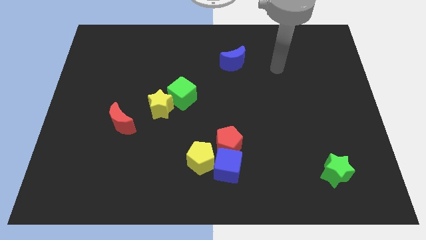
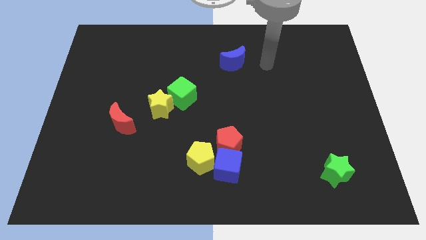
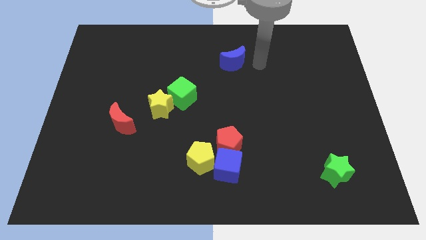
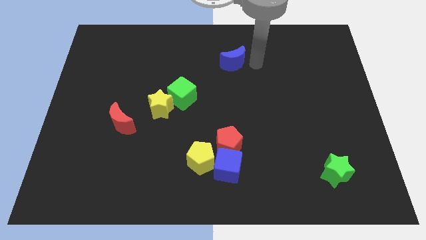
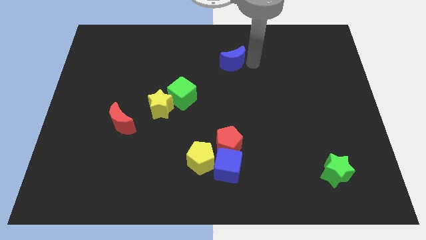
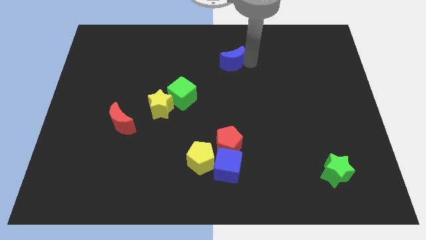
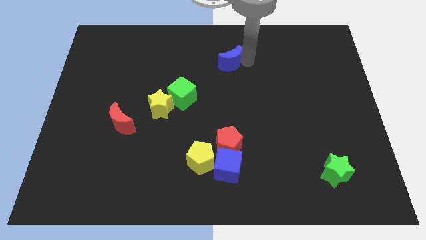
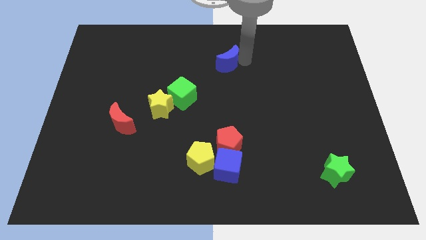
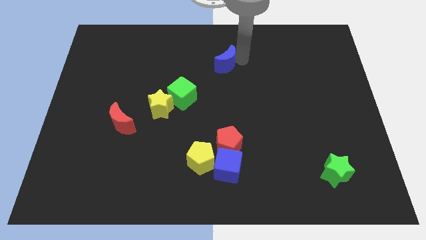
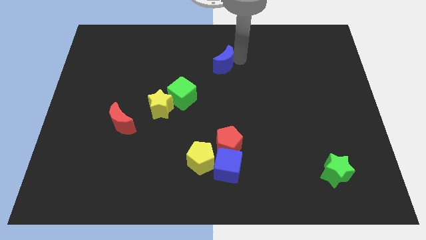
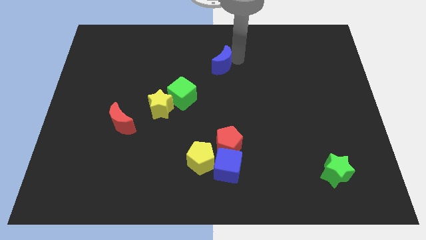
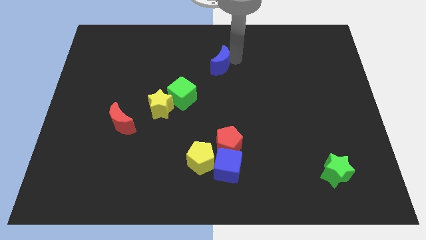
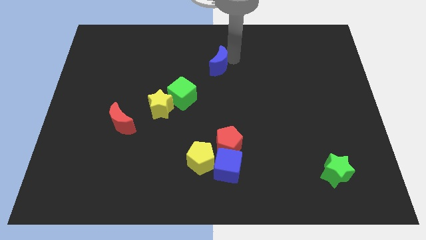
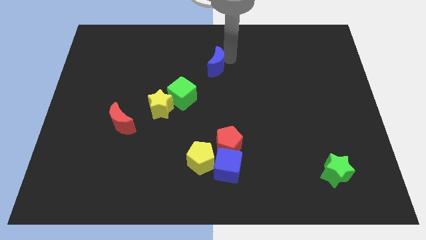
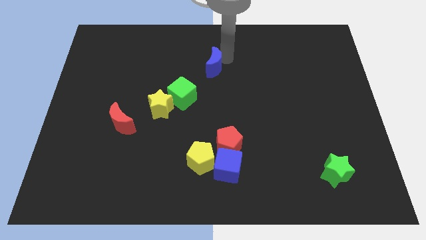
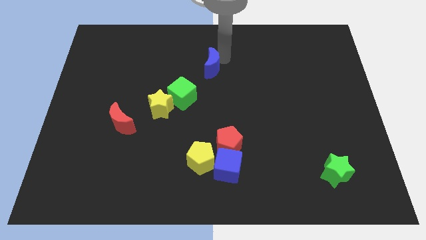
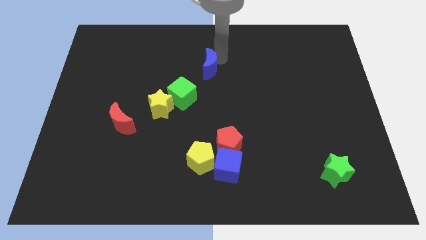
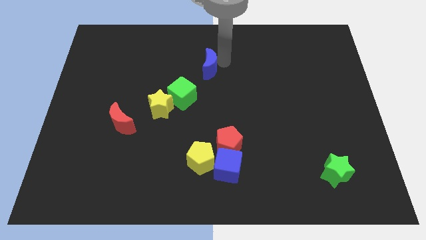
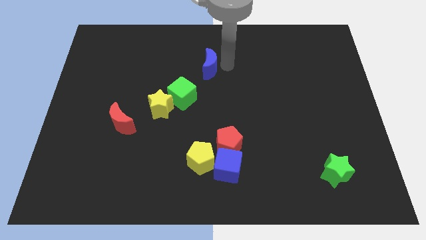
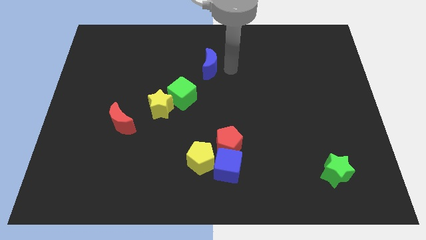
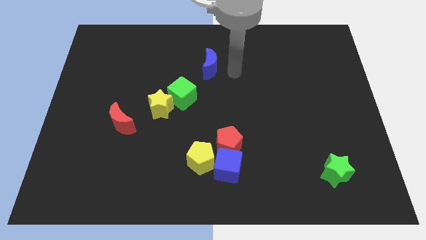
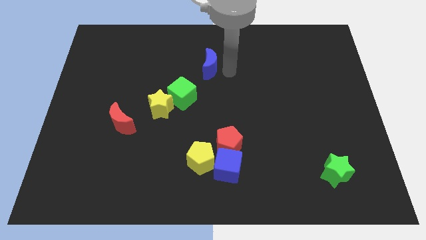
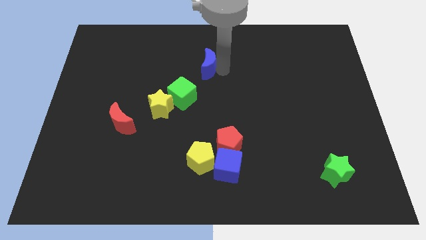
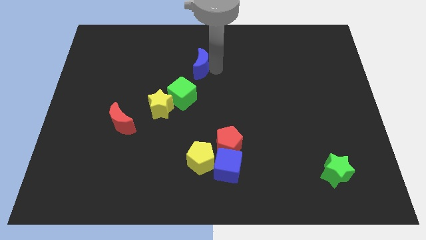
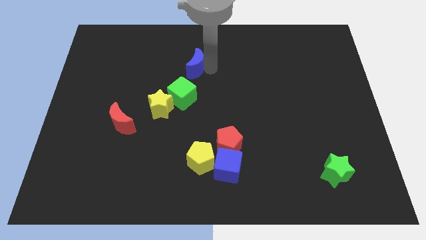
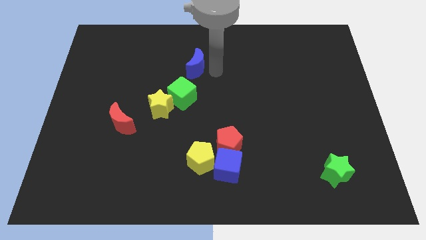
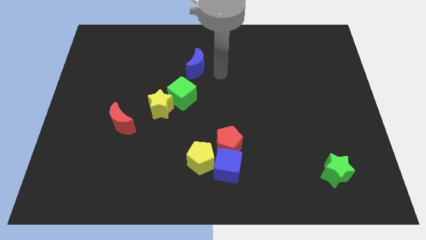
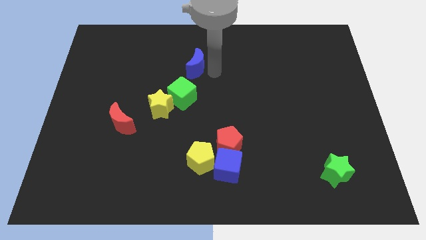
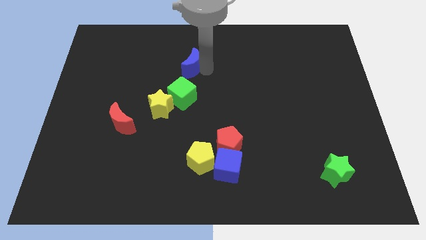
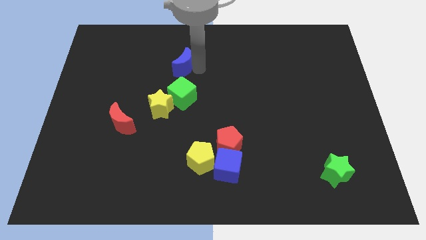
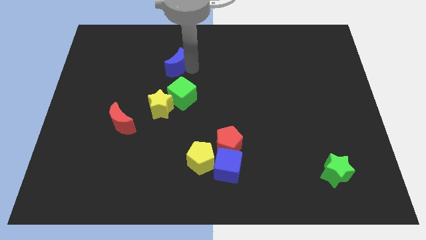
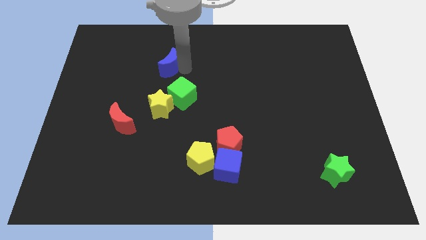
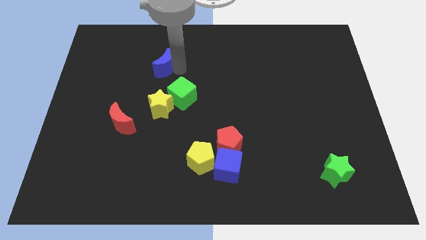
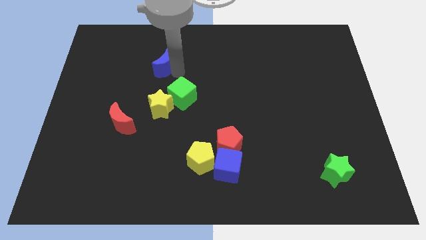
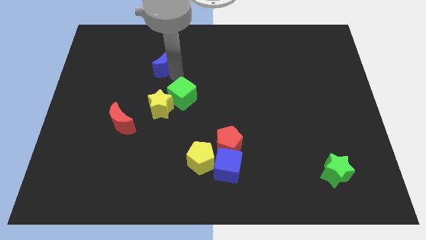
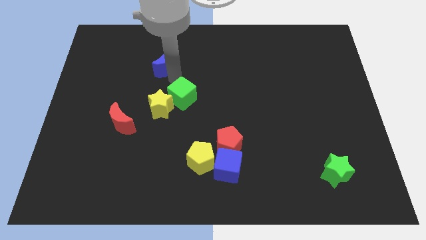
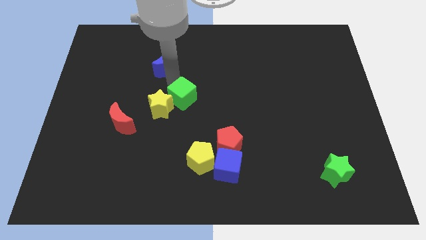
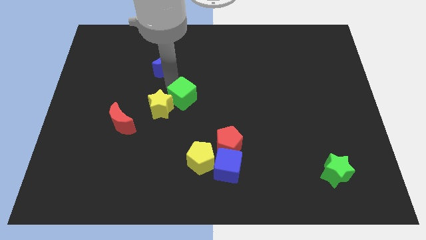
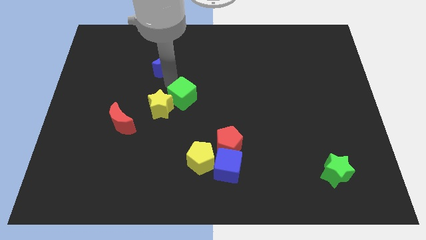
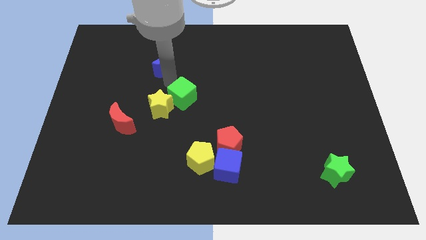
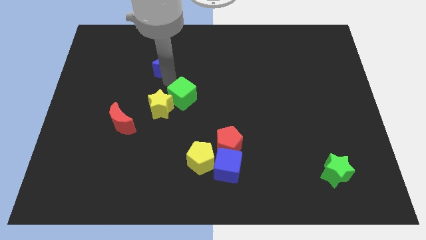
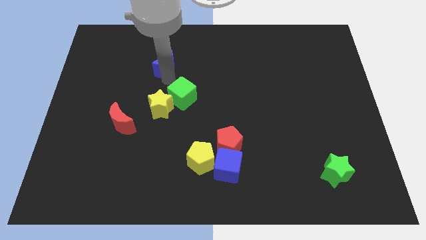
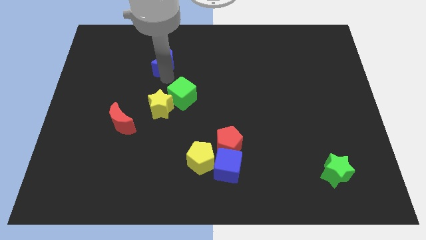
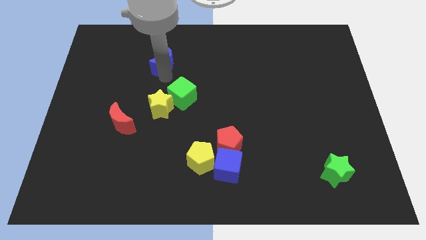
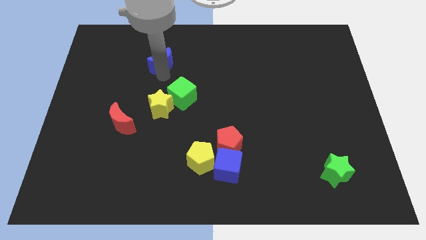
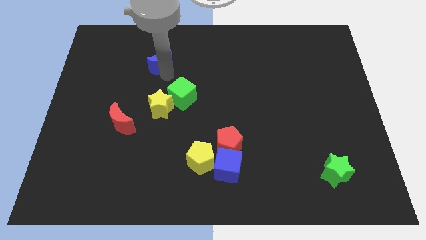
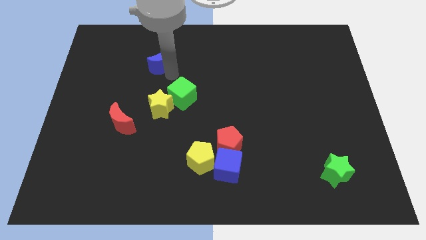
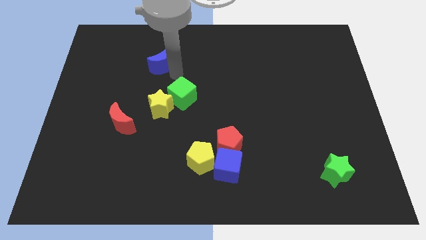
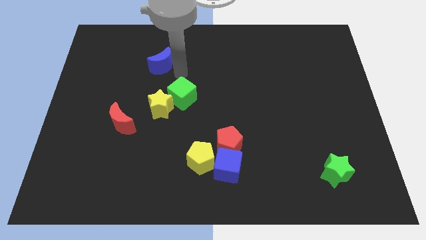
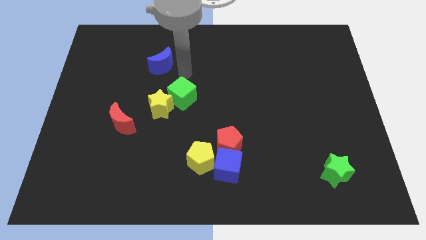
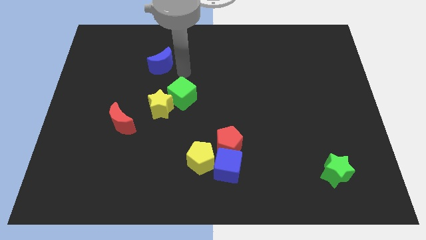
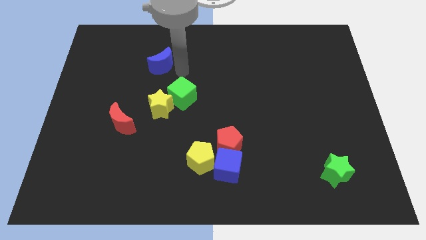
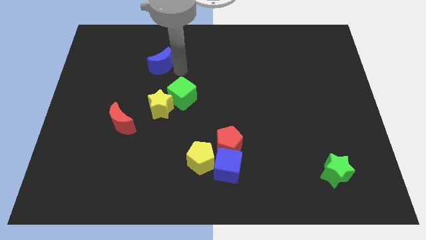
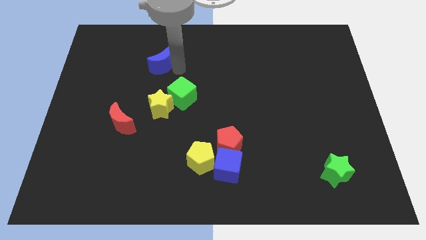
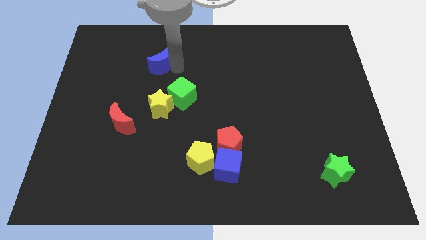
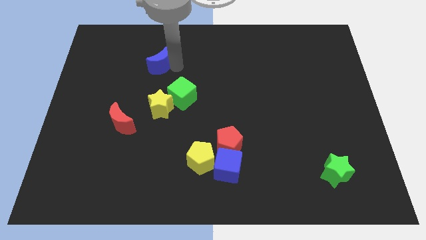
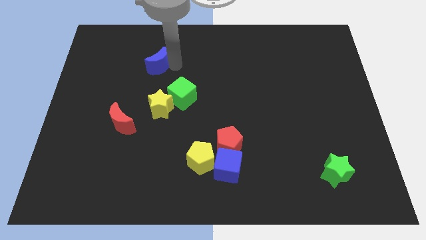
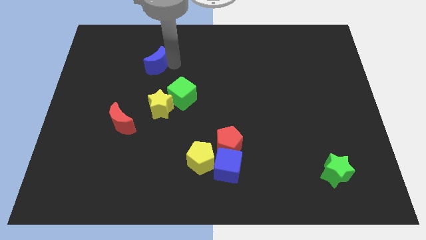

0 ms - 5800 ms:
push the blue moon to the left

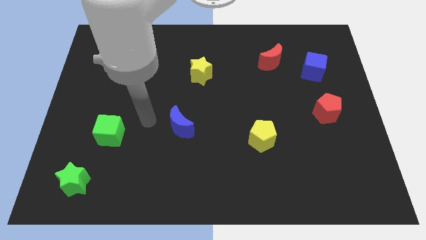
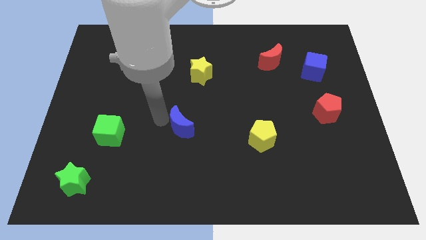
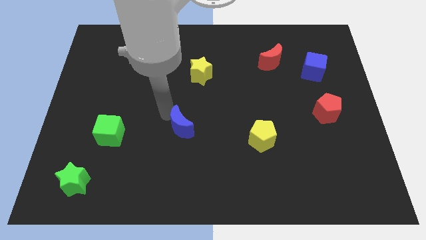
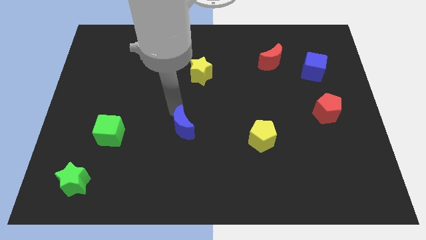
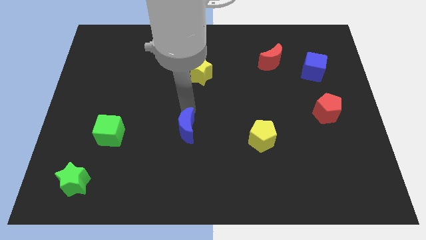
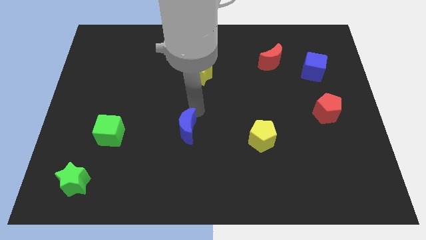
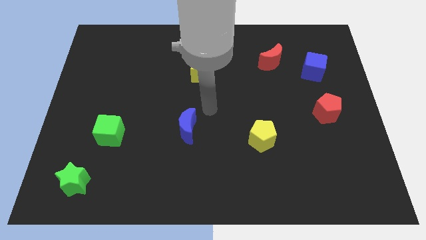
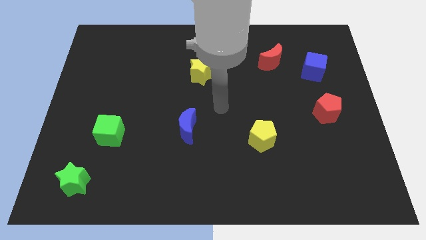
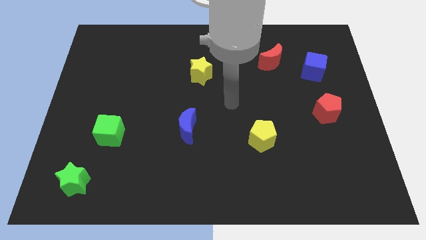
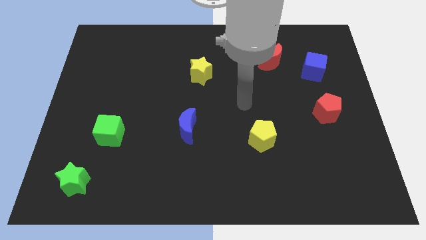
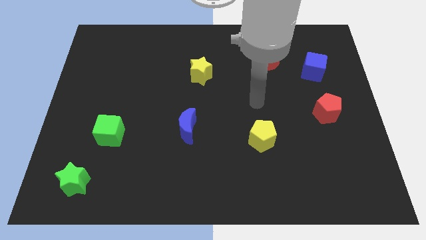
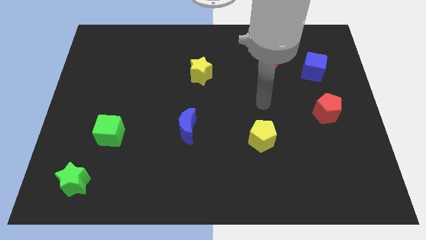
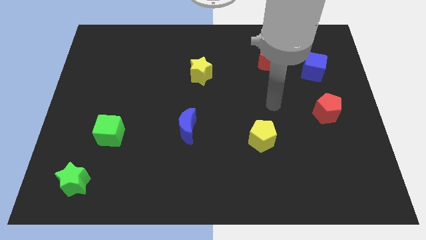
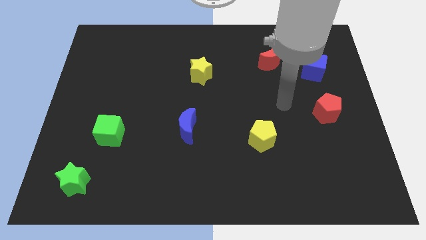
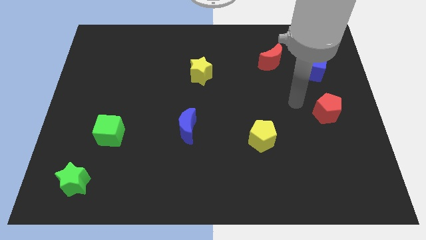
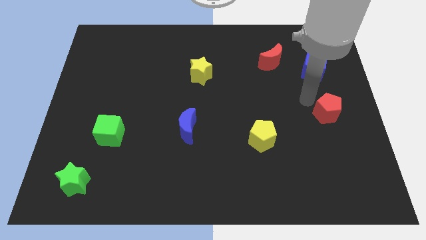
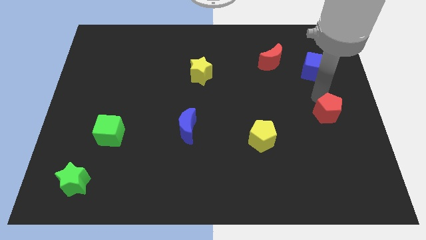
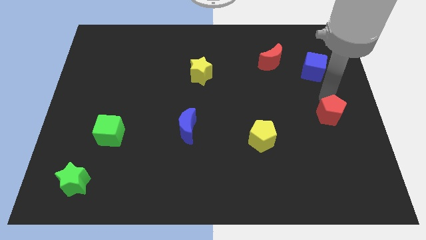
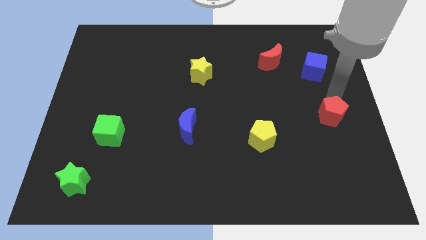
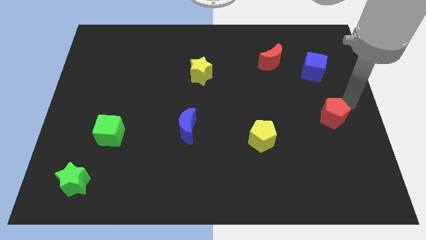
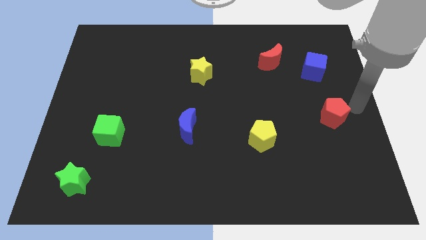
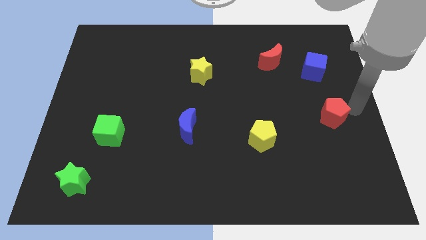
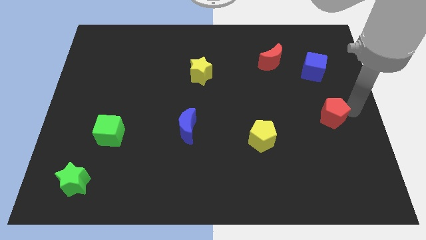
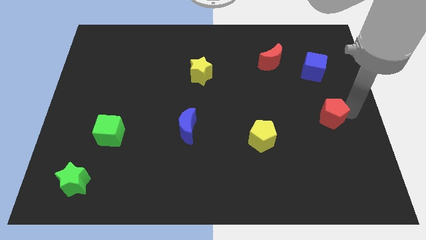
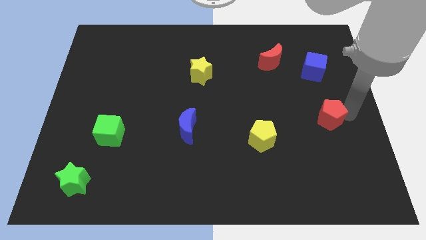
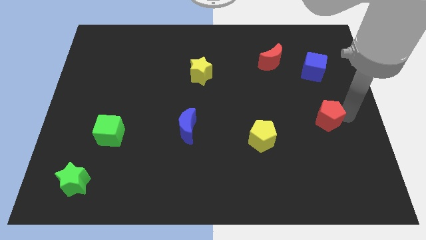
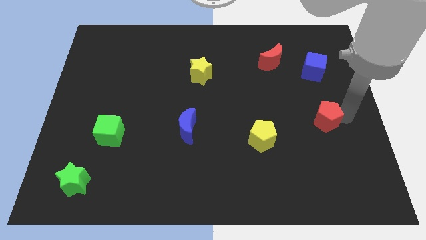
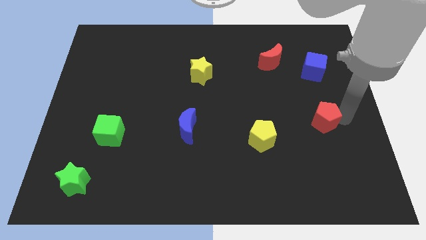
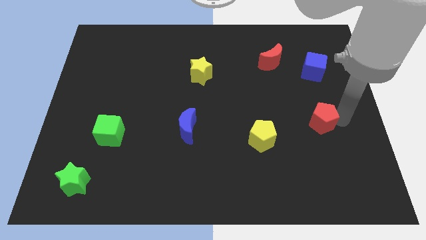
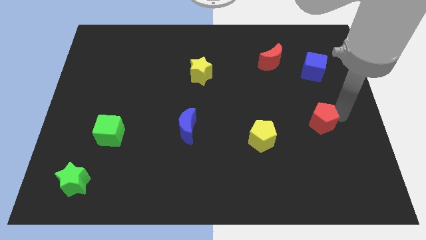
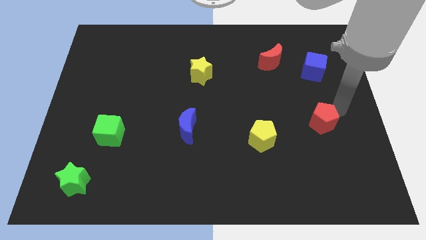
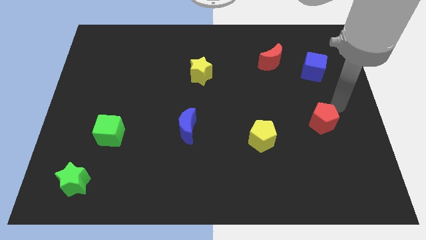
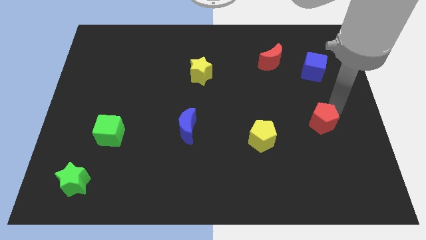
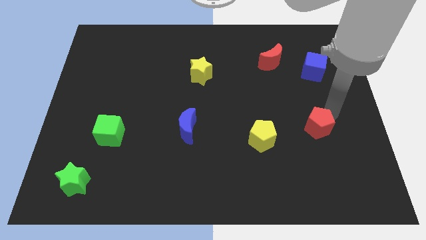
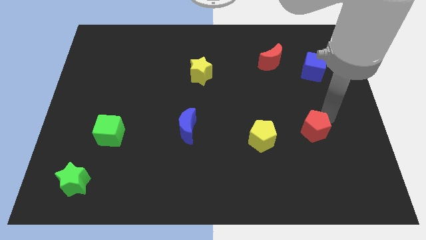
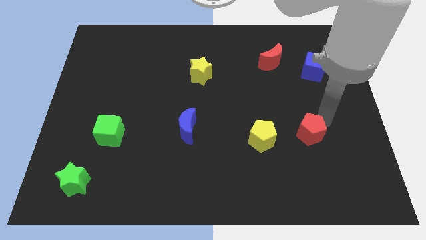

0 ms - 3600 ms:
move the red pentagon slightly downwards and left
